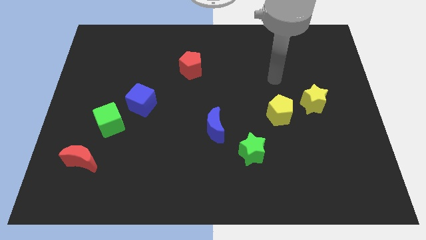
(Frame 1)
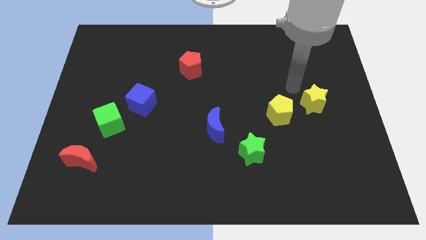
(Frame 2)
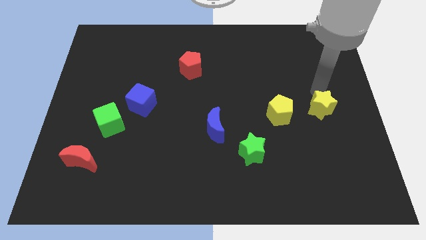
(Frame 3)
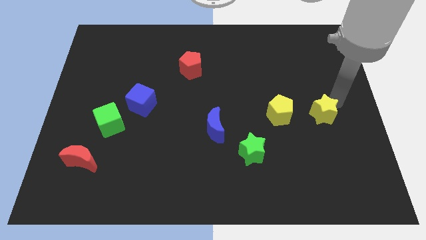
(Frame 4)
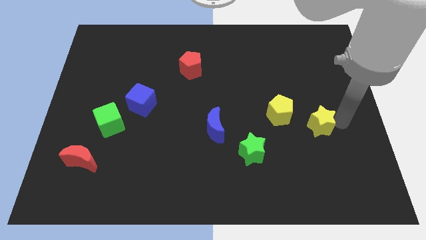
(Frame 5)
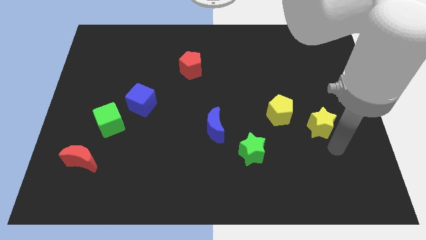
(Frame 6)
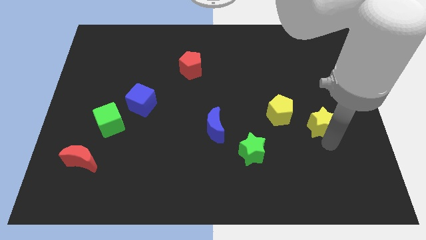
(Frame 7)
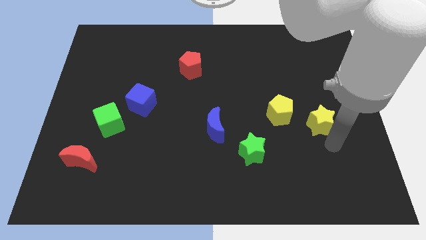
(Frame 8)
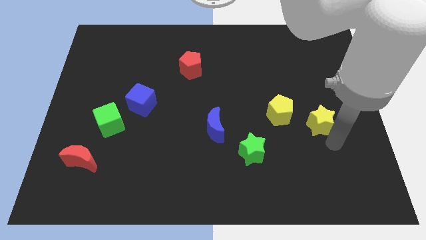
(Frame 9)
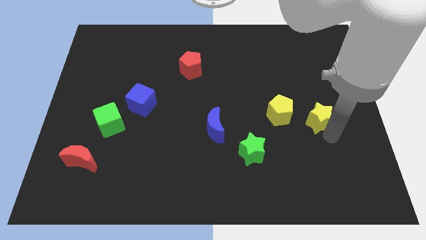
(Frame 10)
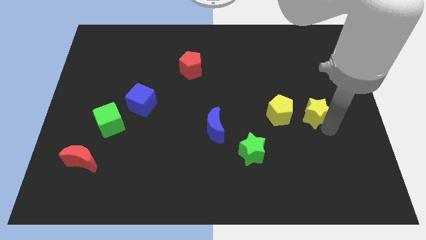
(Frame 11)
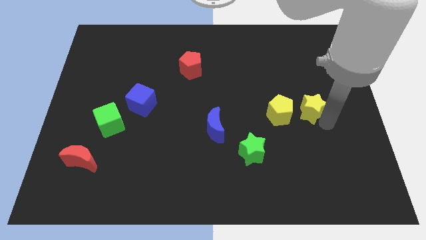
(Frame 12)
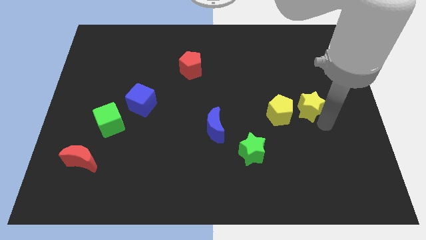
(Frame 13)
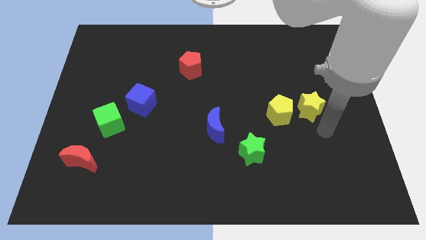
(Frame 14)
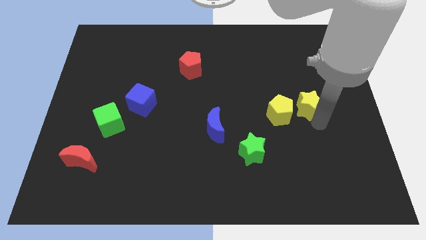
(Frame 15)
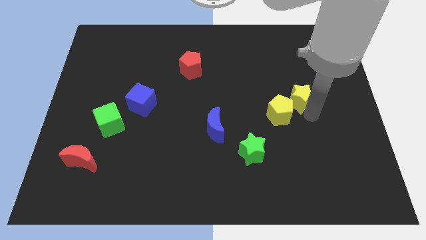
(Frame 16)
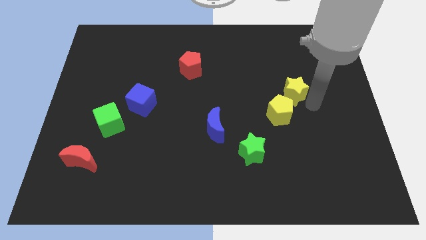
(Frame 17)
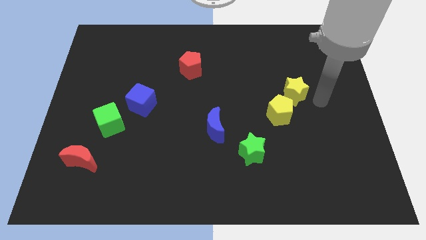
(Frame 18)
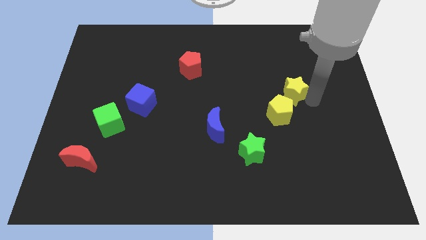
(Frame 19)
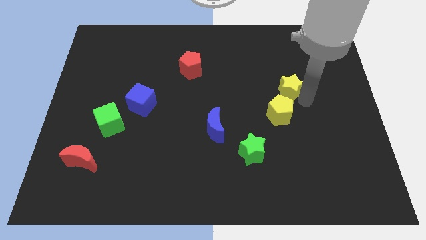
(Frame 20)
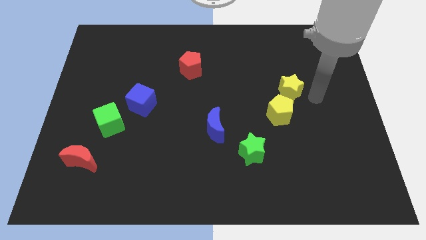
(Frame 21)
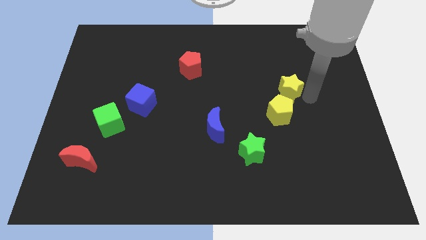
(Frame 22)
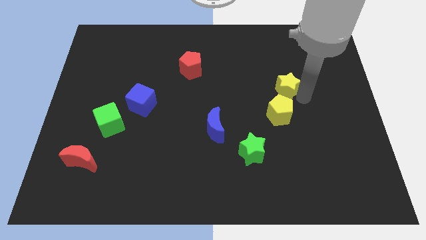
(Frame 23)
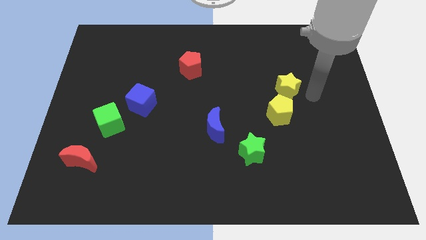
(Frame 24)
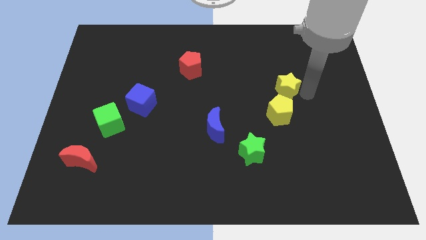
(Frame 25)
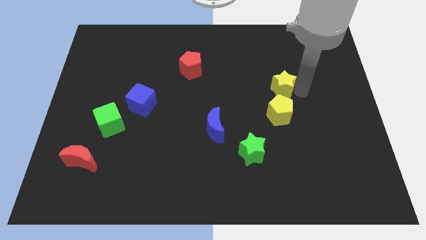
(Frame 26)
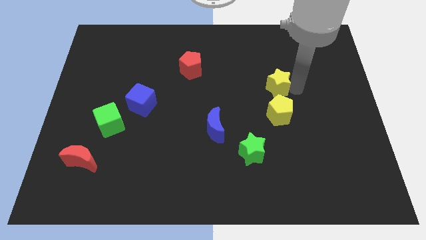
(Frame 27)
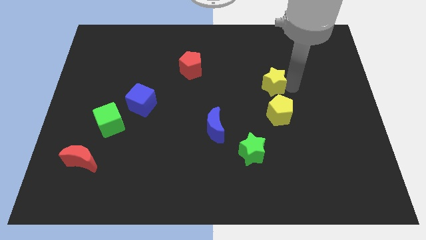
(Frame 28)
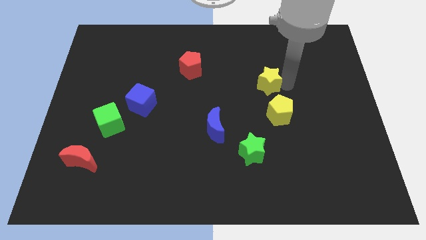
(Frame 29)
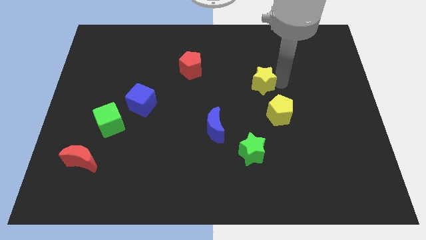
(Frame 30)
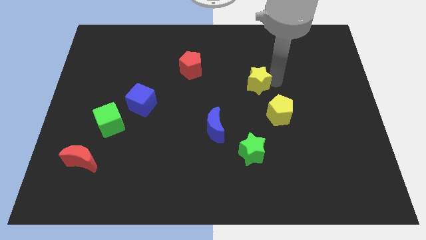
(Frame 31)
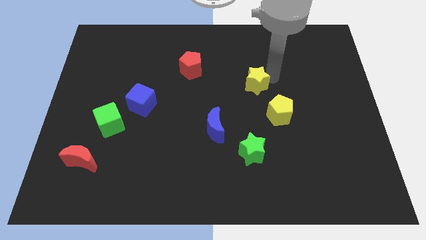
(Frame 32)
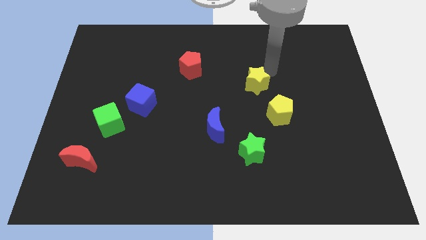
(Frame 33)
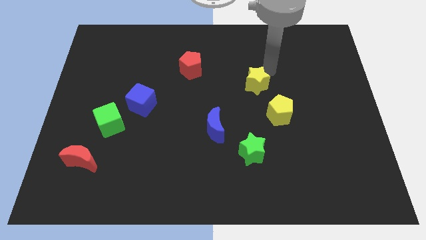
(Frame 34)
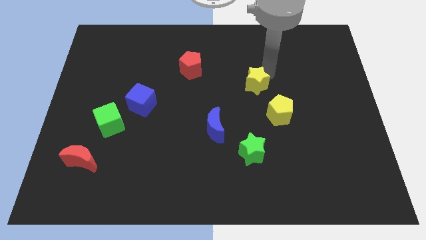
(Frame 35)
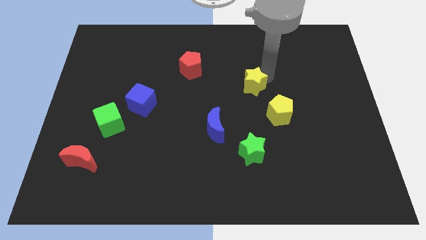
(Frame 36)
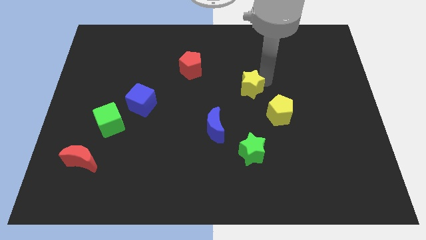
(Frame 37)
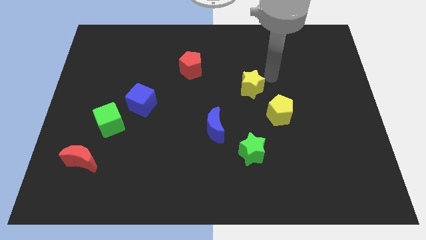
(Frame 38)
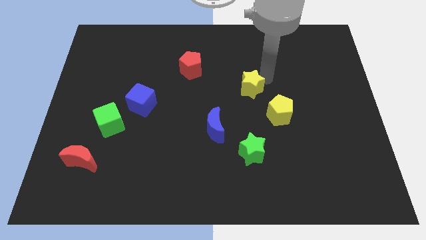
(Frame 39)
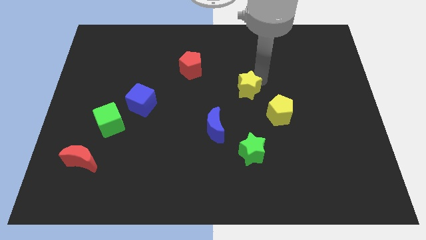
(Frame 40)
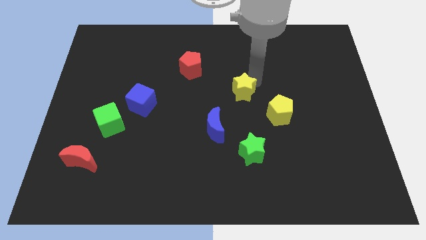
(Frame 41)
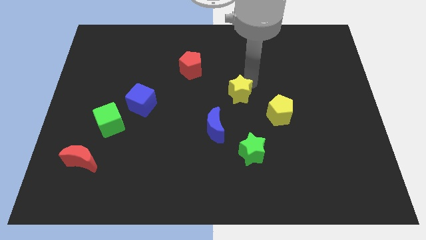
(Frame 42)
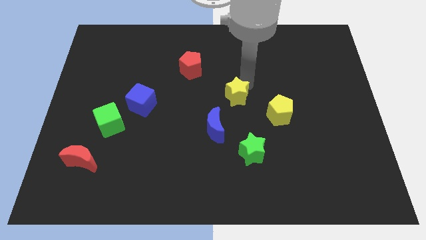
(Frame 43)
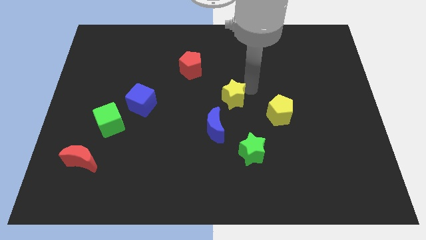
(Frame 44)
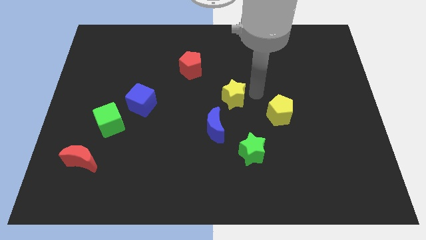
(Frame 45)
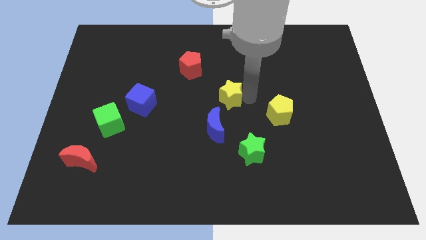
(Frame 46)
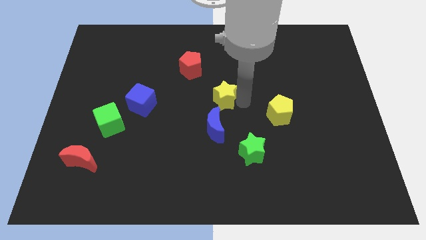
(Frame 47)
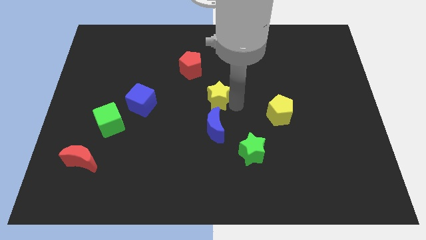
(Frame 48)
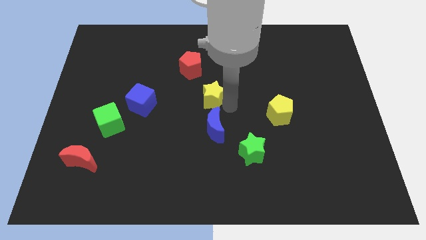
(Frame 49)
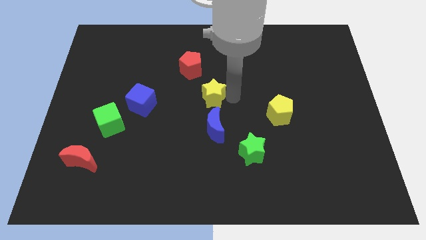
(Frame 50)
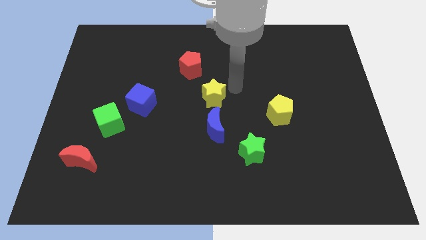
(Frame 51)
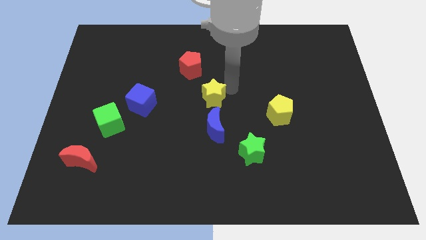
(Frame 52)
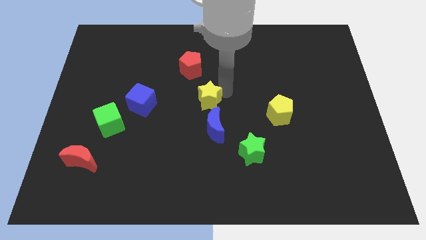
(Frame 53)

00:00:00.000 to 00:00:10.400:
push the yellow star diagonally up and to the left of the blue moon

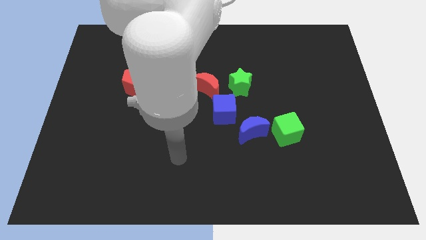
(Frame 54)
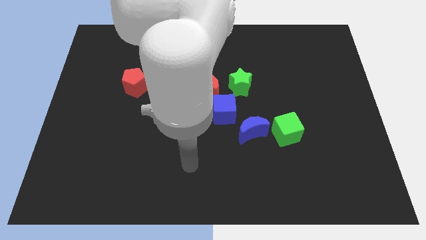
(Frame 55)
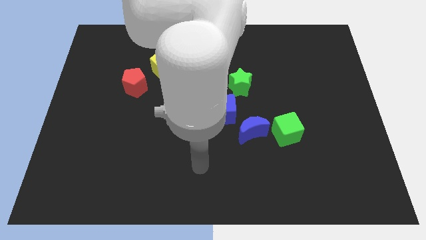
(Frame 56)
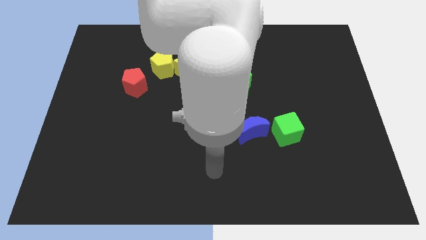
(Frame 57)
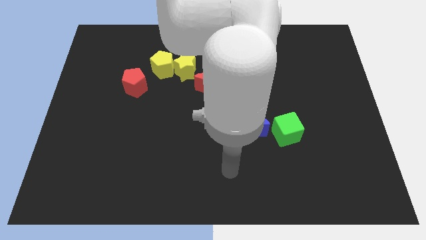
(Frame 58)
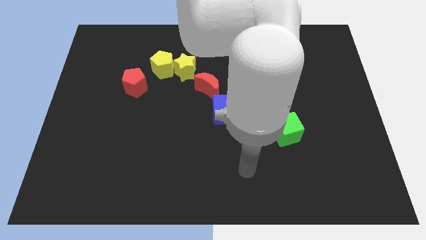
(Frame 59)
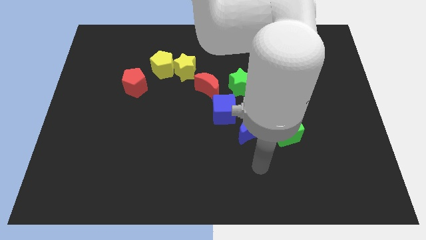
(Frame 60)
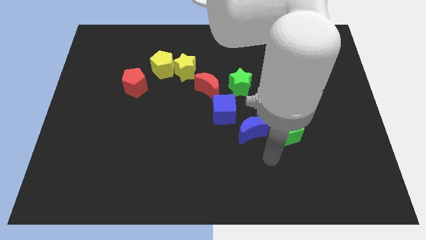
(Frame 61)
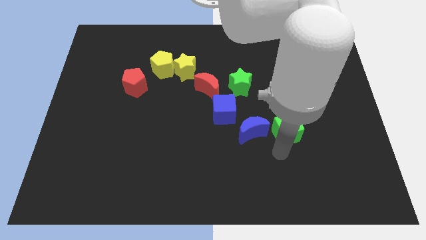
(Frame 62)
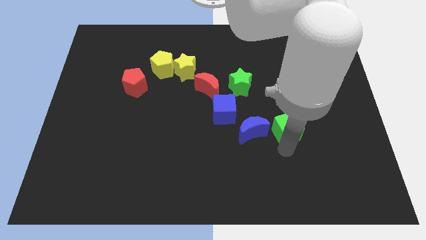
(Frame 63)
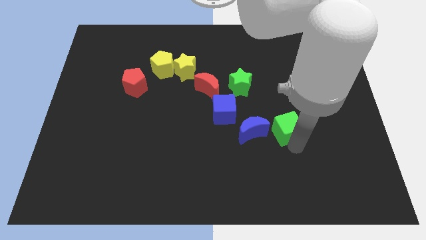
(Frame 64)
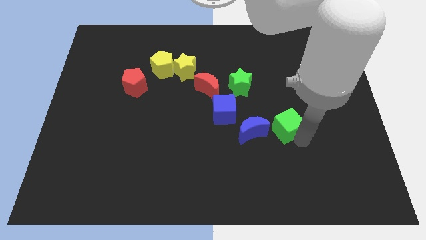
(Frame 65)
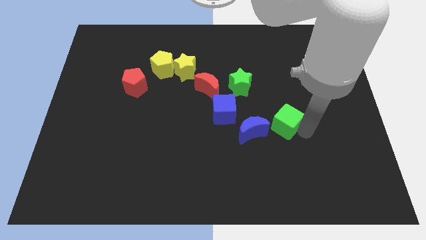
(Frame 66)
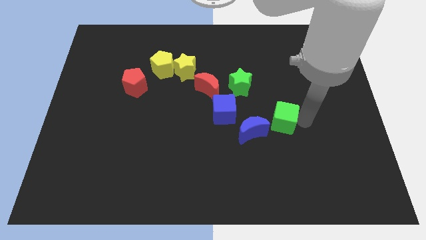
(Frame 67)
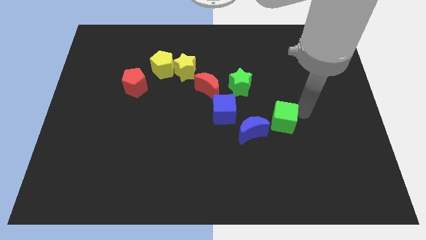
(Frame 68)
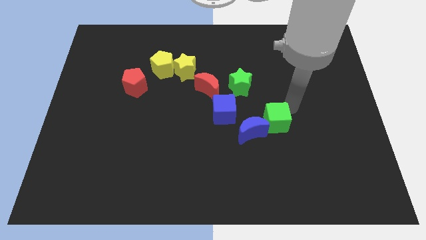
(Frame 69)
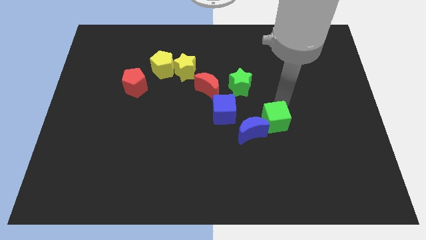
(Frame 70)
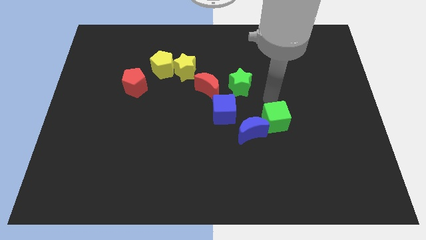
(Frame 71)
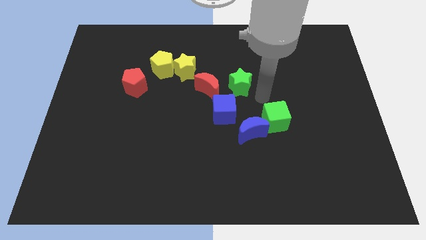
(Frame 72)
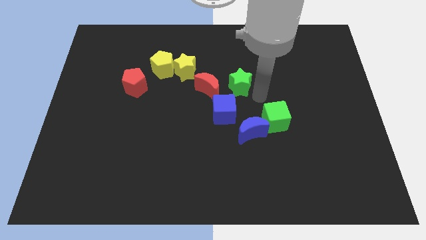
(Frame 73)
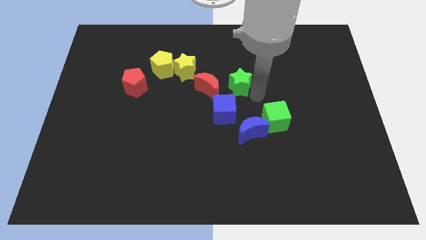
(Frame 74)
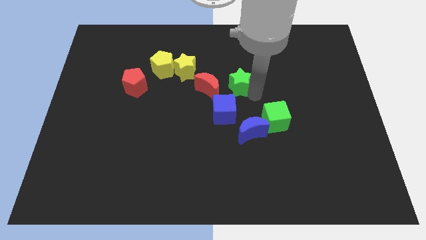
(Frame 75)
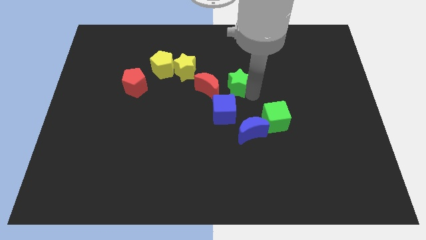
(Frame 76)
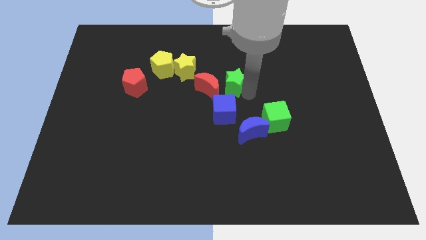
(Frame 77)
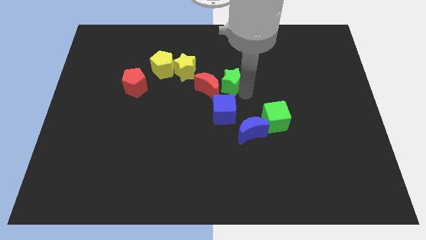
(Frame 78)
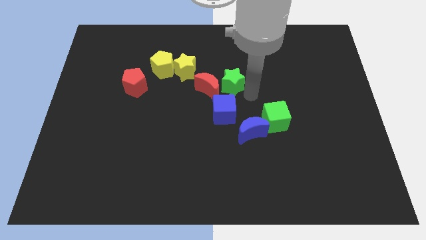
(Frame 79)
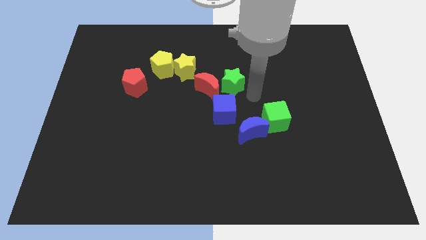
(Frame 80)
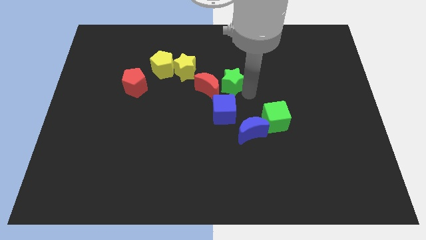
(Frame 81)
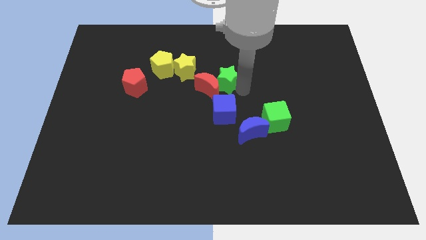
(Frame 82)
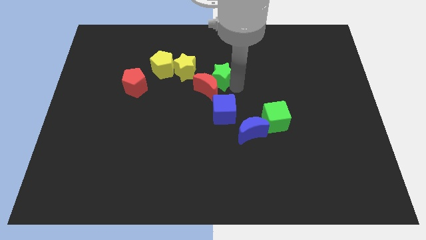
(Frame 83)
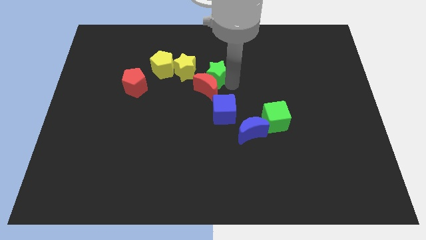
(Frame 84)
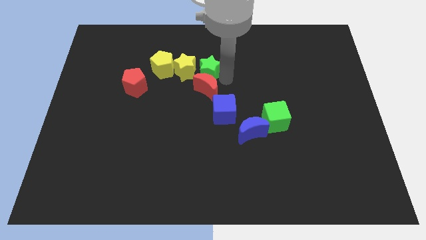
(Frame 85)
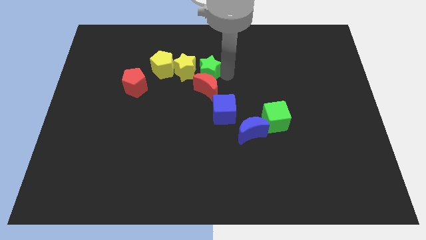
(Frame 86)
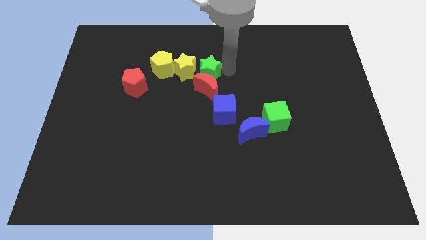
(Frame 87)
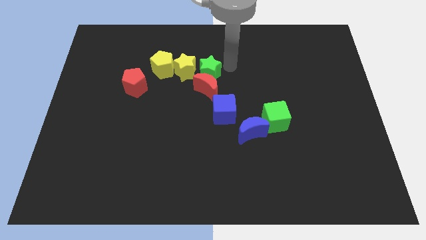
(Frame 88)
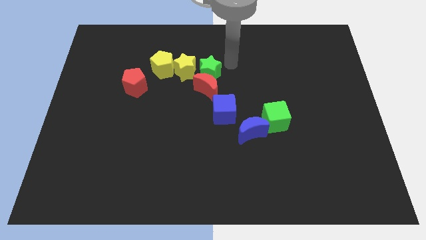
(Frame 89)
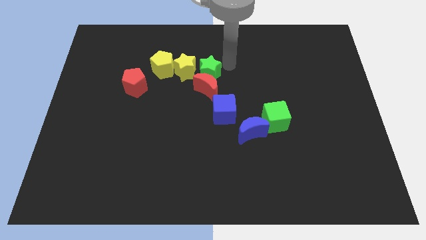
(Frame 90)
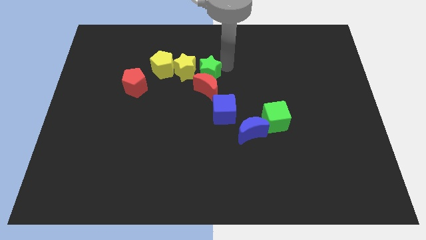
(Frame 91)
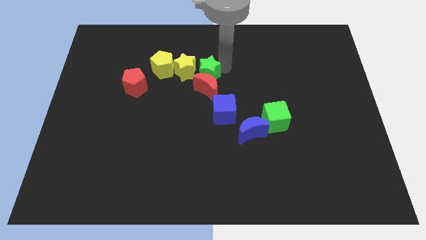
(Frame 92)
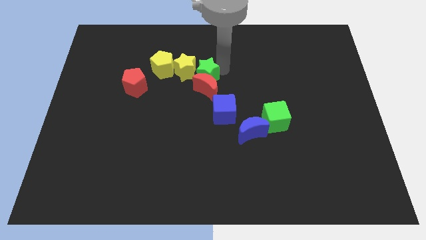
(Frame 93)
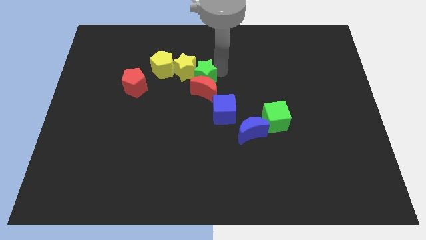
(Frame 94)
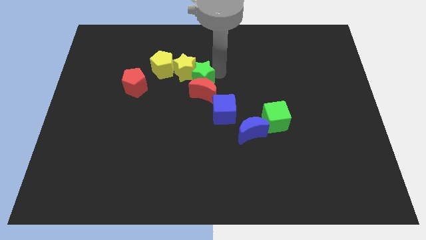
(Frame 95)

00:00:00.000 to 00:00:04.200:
move the green star to the bottom right of the yellow pentagon
